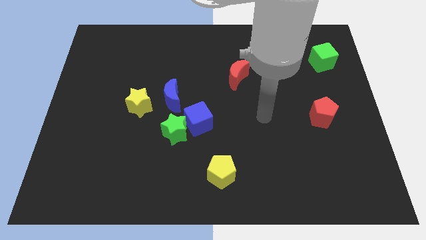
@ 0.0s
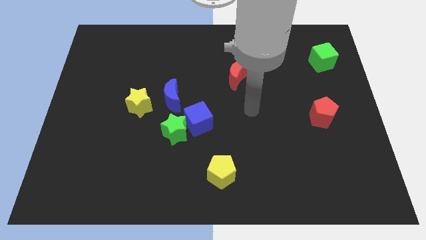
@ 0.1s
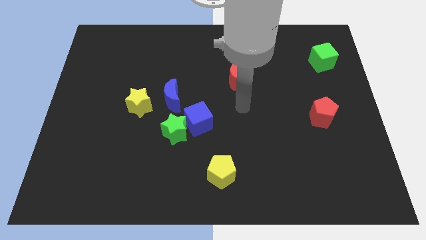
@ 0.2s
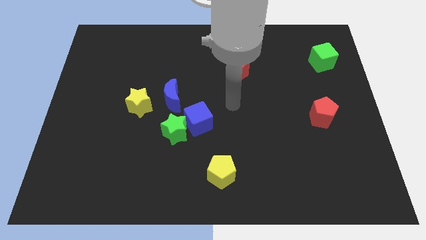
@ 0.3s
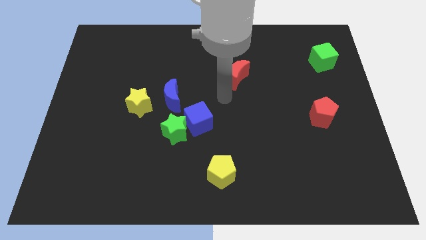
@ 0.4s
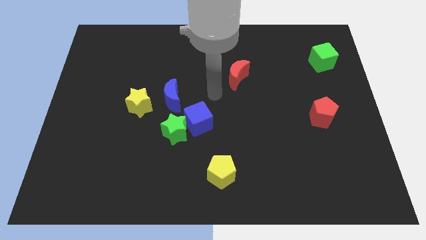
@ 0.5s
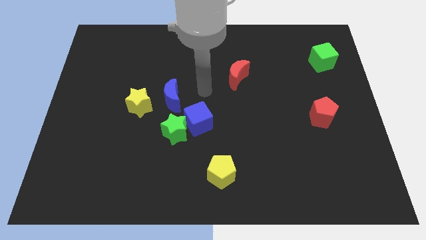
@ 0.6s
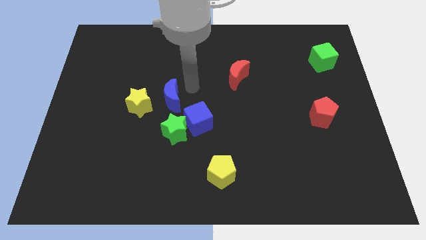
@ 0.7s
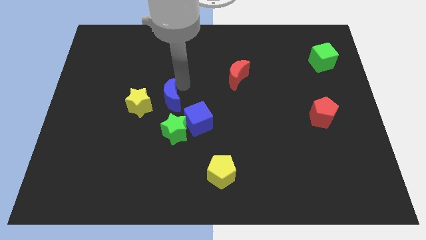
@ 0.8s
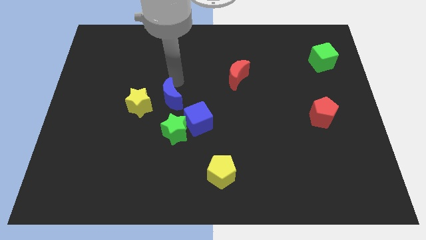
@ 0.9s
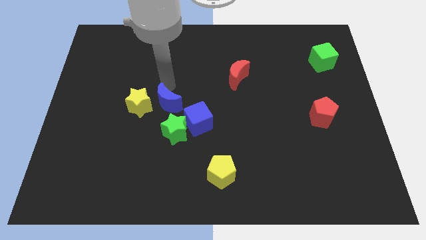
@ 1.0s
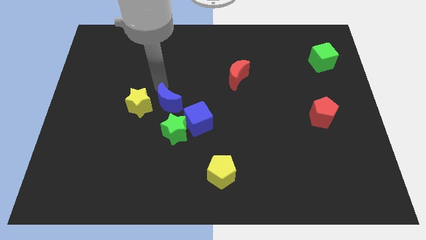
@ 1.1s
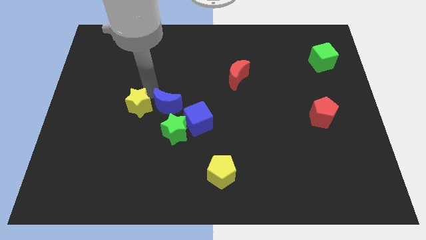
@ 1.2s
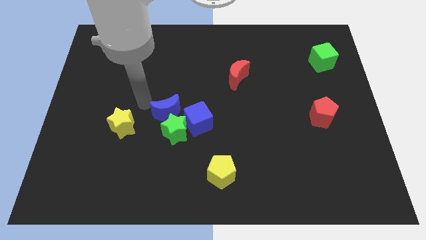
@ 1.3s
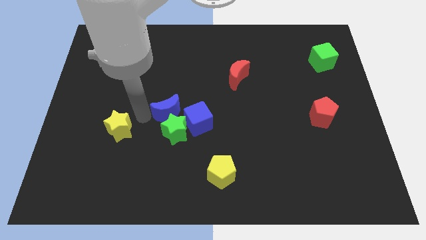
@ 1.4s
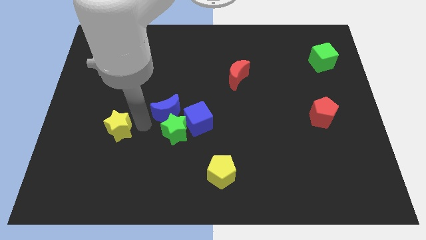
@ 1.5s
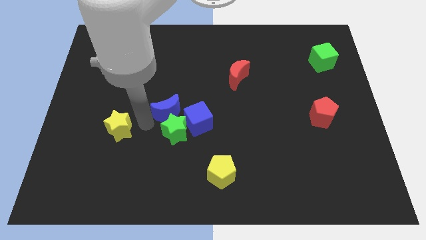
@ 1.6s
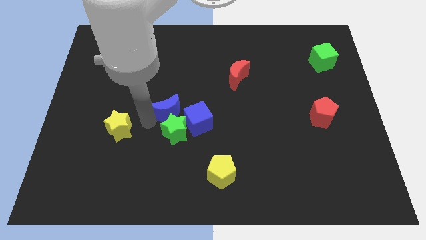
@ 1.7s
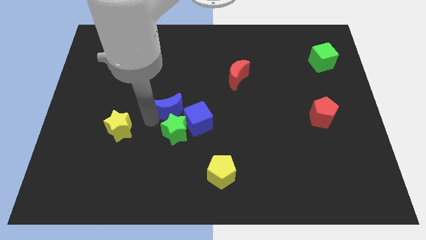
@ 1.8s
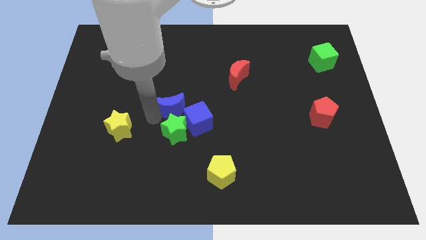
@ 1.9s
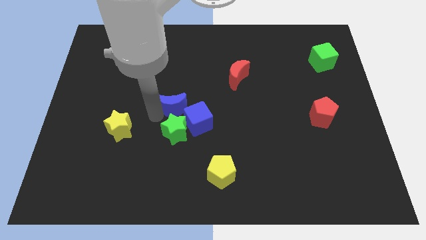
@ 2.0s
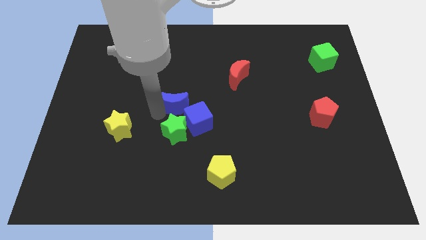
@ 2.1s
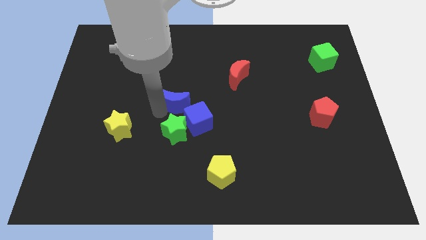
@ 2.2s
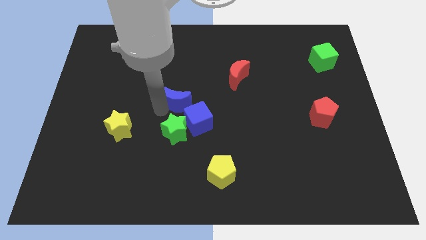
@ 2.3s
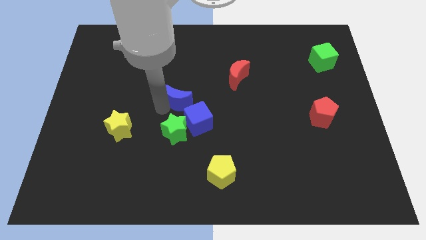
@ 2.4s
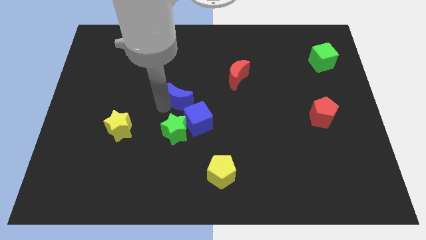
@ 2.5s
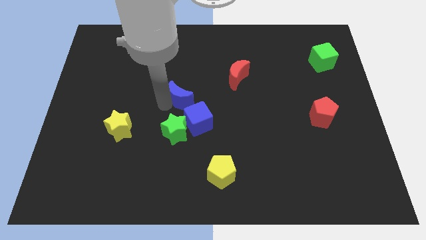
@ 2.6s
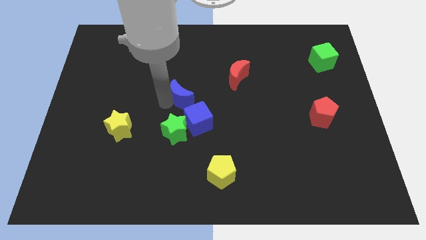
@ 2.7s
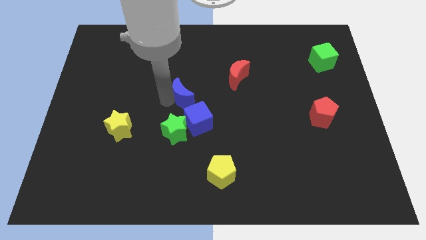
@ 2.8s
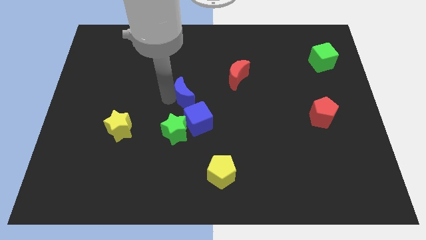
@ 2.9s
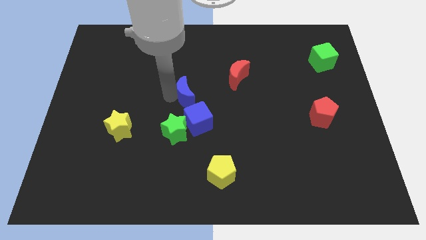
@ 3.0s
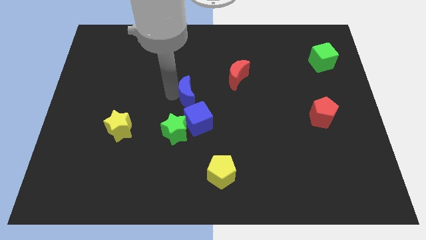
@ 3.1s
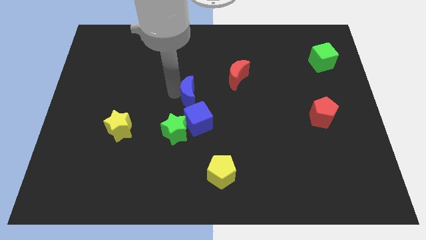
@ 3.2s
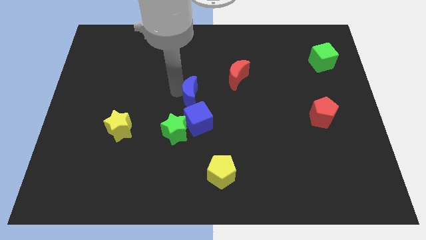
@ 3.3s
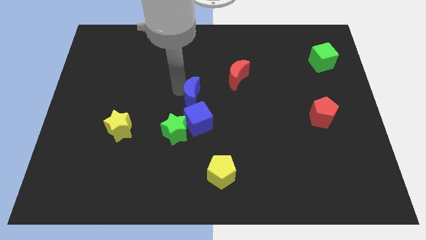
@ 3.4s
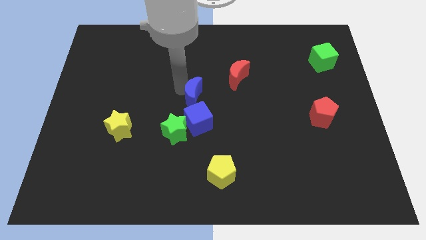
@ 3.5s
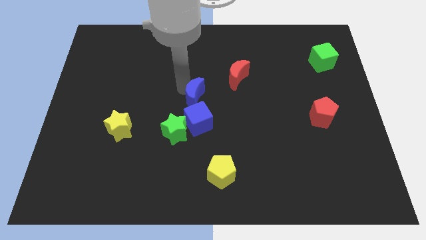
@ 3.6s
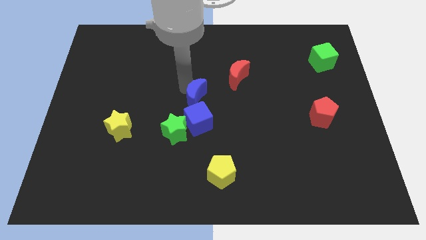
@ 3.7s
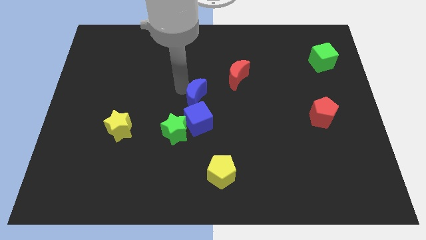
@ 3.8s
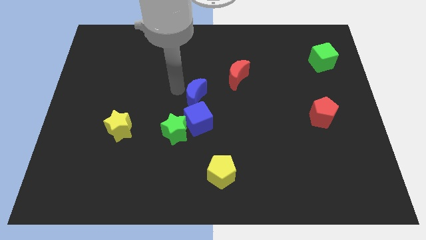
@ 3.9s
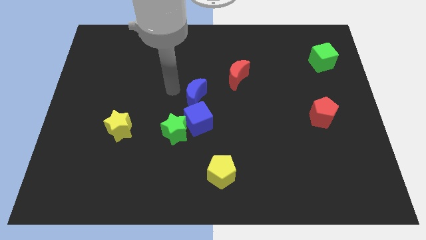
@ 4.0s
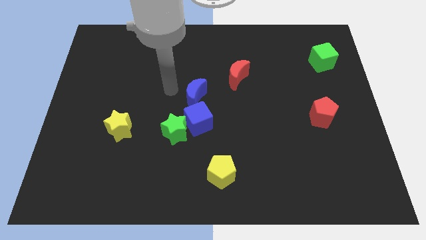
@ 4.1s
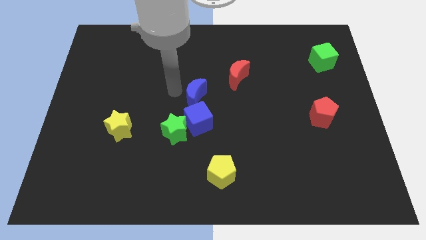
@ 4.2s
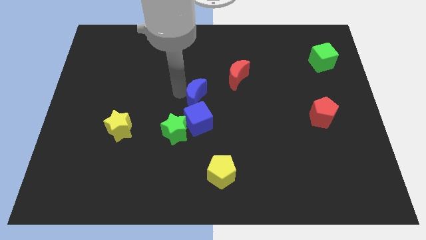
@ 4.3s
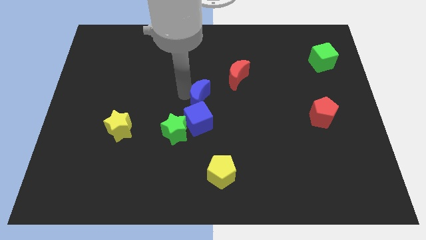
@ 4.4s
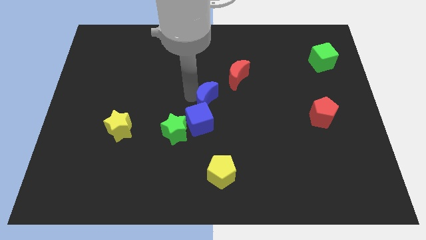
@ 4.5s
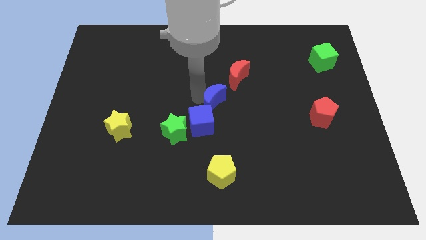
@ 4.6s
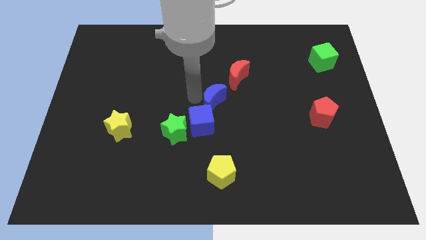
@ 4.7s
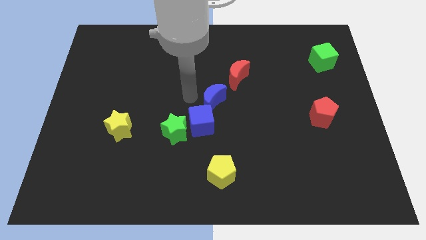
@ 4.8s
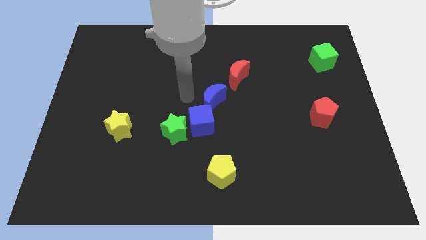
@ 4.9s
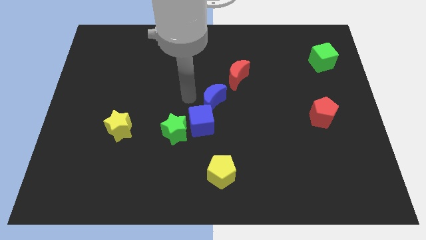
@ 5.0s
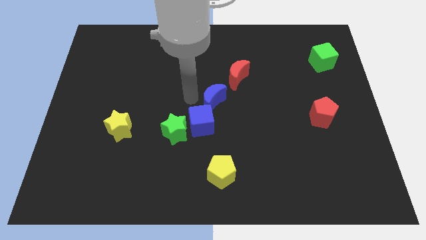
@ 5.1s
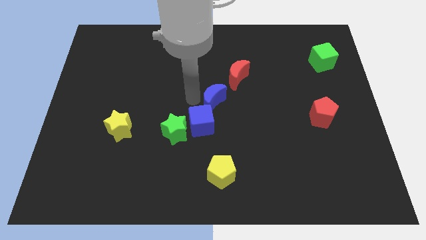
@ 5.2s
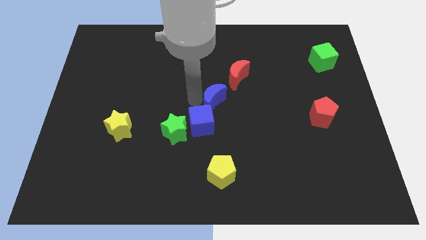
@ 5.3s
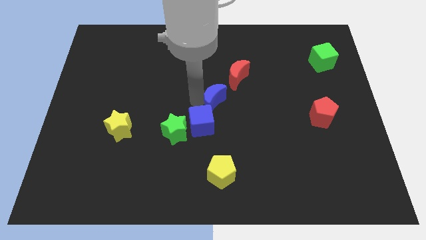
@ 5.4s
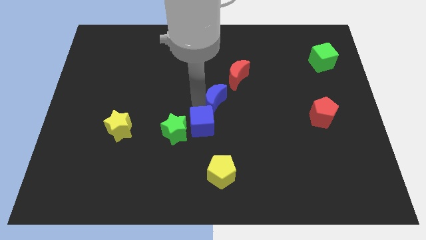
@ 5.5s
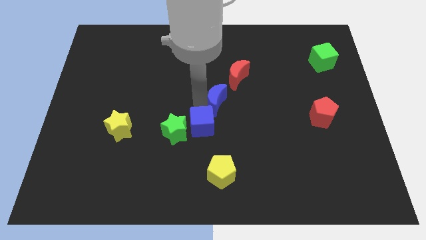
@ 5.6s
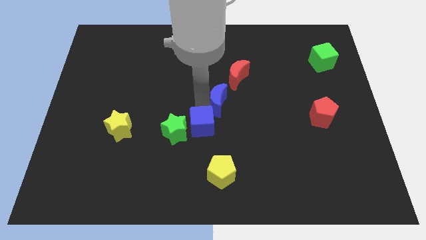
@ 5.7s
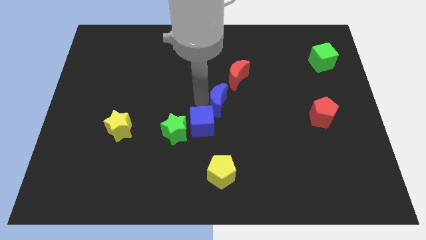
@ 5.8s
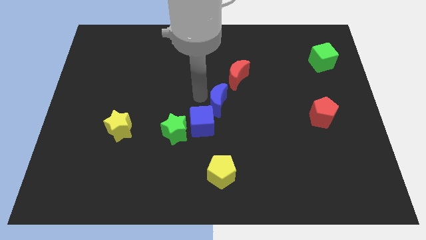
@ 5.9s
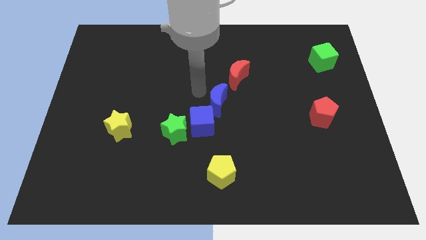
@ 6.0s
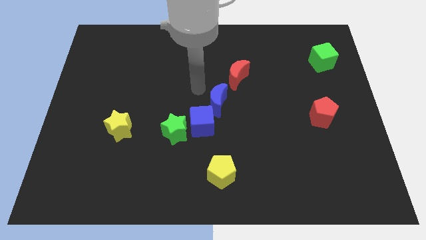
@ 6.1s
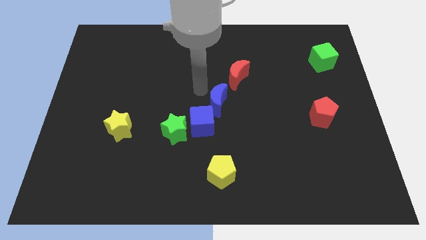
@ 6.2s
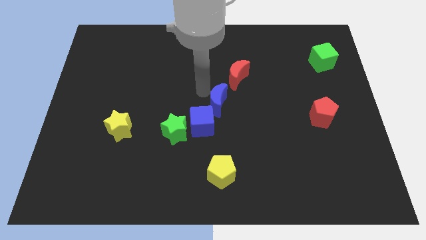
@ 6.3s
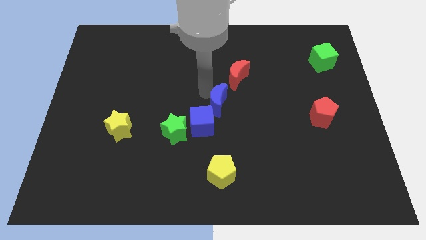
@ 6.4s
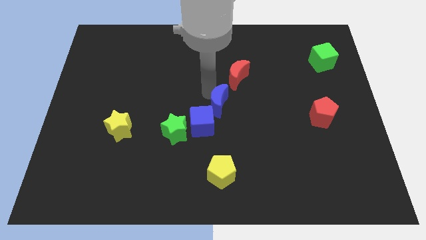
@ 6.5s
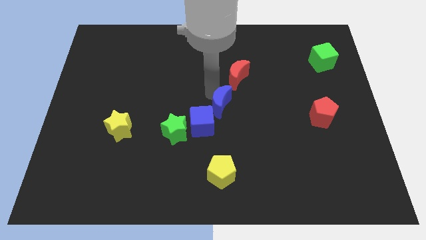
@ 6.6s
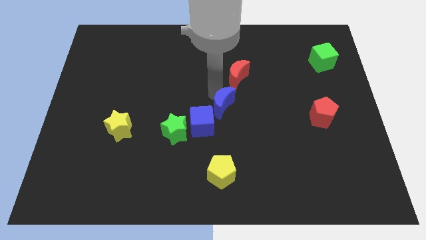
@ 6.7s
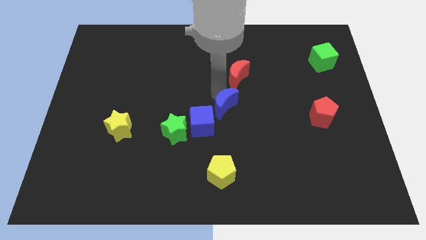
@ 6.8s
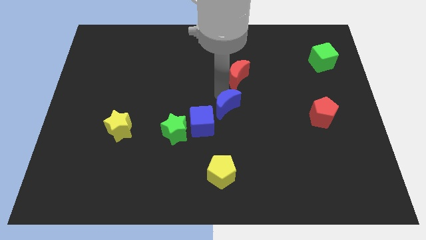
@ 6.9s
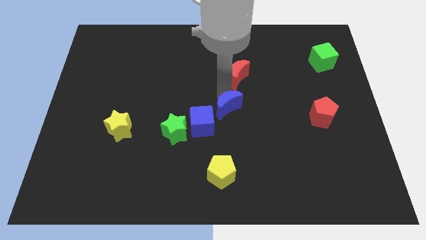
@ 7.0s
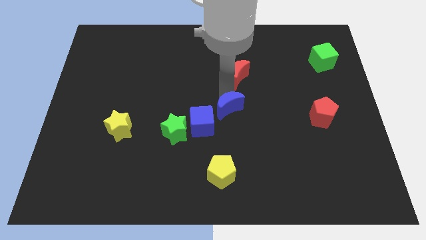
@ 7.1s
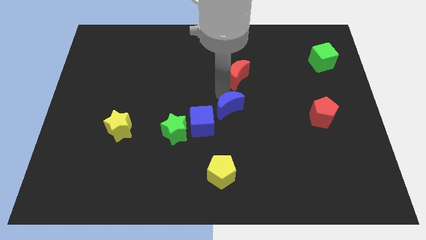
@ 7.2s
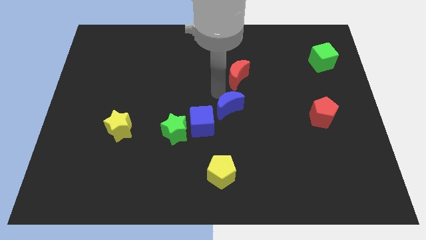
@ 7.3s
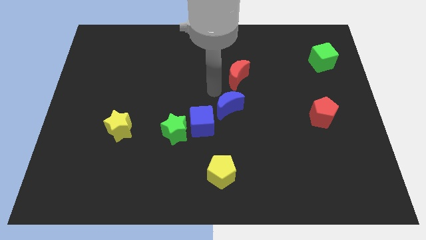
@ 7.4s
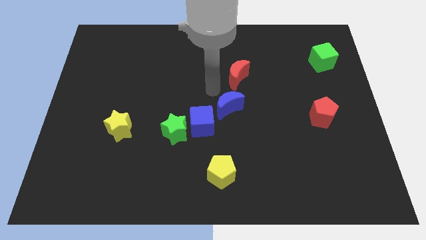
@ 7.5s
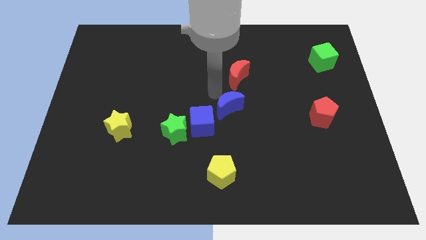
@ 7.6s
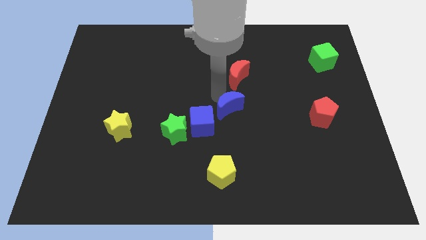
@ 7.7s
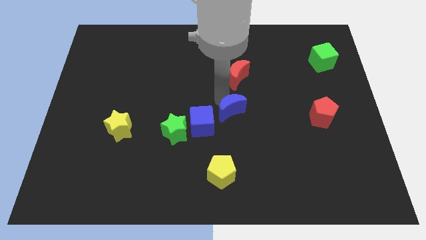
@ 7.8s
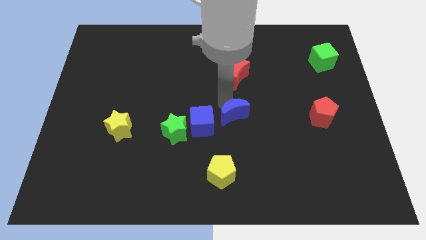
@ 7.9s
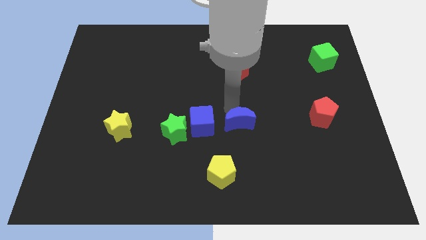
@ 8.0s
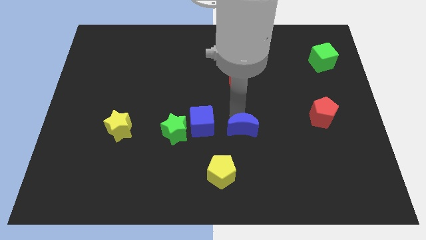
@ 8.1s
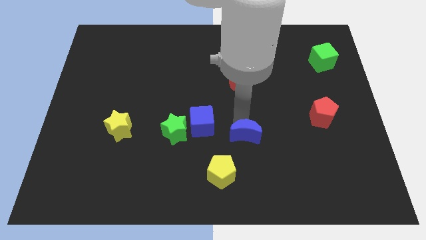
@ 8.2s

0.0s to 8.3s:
push the blue moon to the top right of the yellow pentagon
